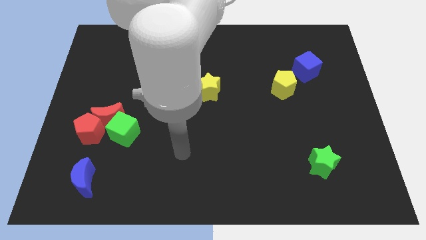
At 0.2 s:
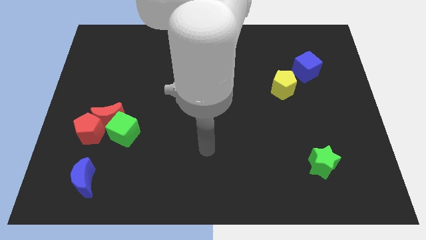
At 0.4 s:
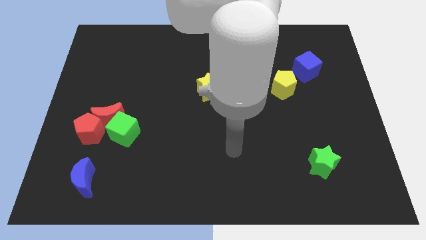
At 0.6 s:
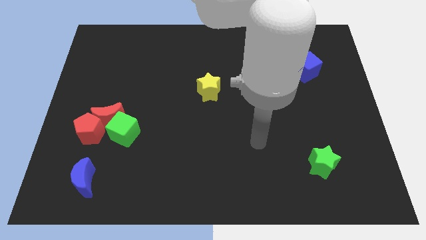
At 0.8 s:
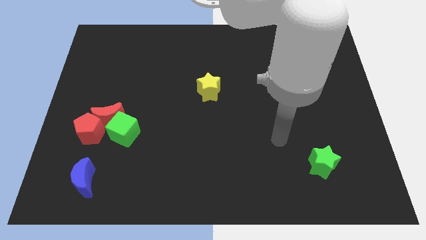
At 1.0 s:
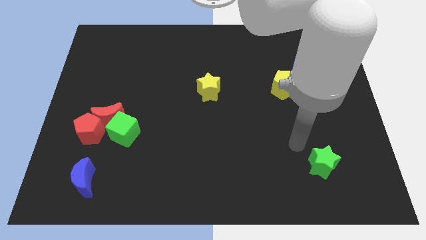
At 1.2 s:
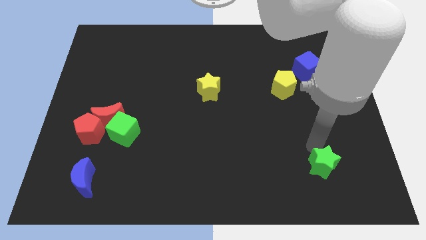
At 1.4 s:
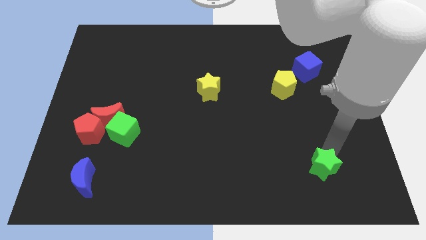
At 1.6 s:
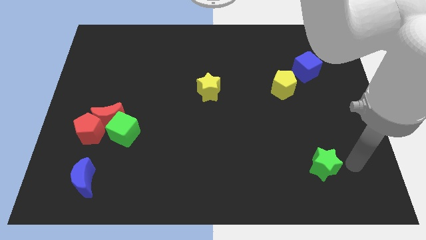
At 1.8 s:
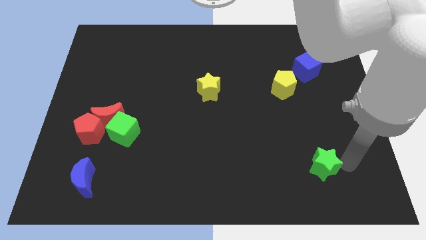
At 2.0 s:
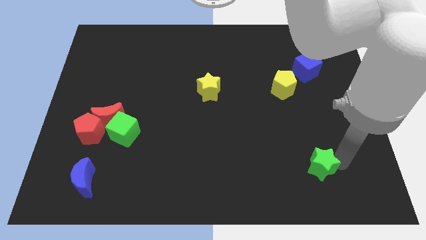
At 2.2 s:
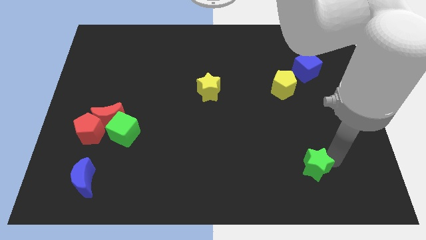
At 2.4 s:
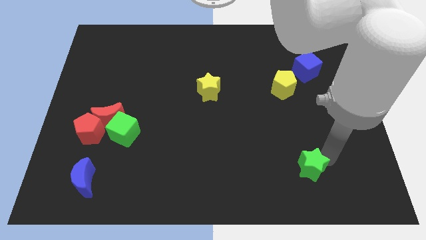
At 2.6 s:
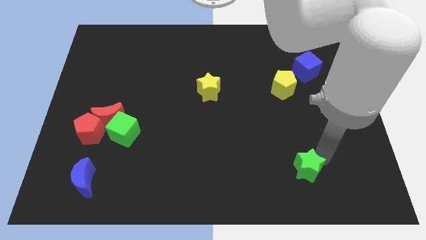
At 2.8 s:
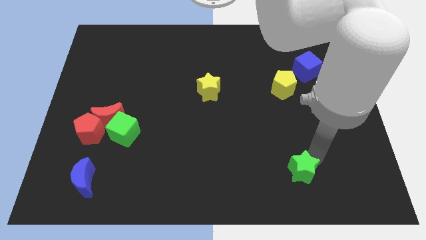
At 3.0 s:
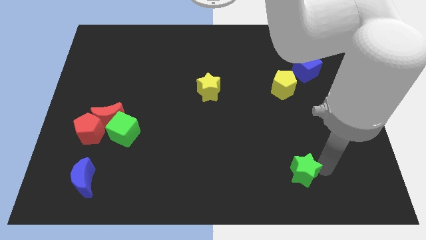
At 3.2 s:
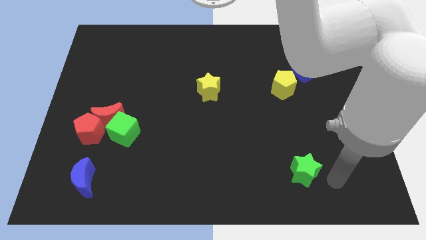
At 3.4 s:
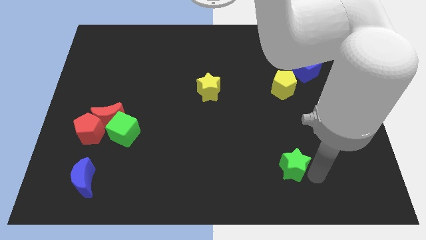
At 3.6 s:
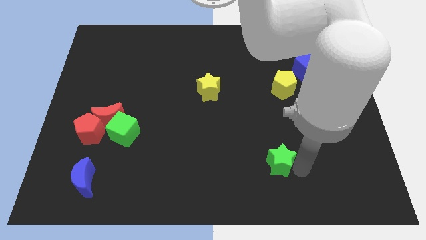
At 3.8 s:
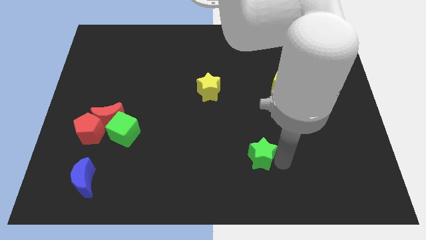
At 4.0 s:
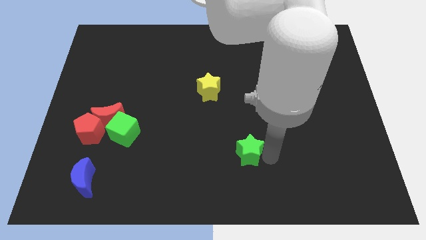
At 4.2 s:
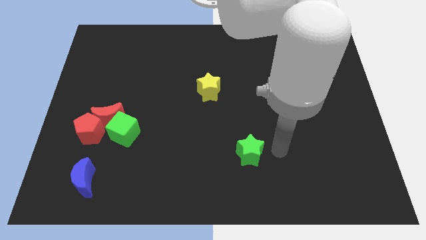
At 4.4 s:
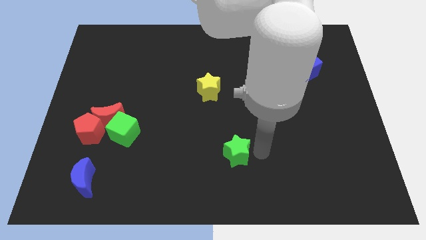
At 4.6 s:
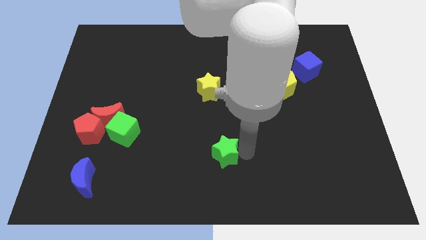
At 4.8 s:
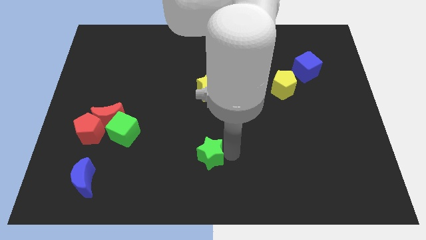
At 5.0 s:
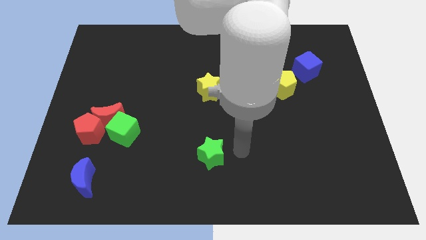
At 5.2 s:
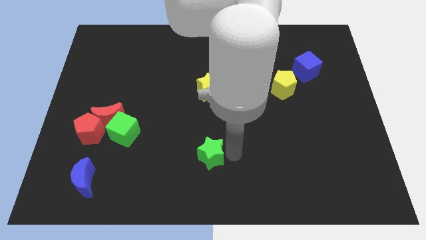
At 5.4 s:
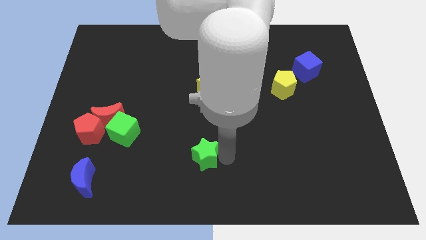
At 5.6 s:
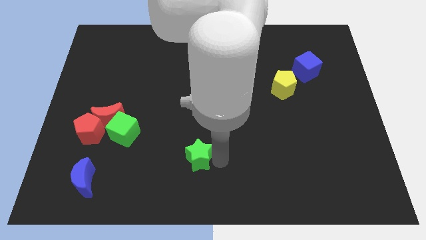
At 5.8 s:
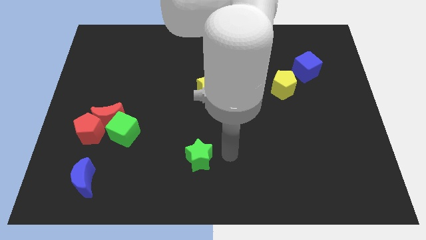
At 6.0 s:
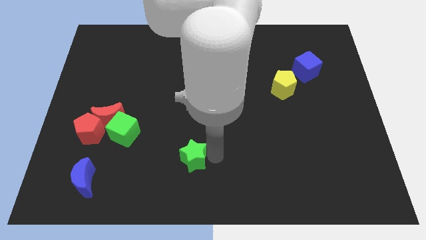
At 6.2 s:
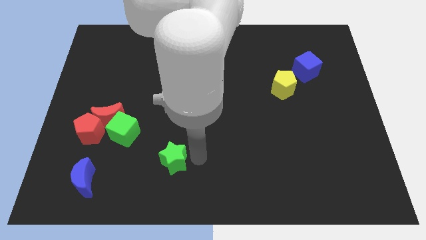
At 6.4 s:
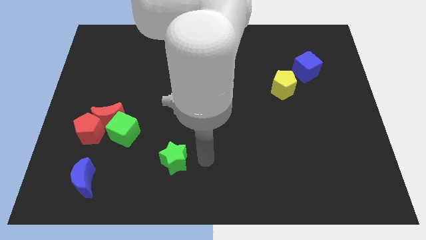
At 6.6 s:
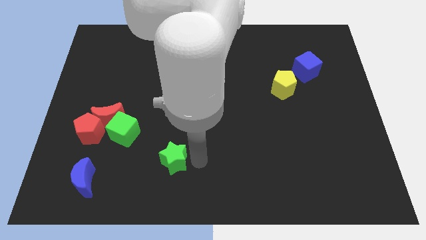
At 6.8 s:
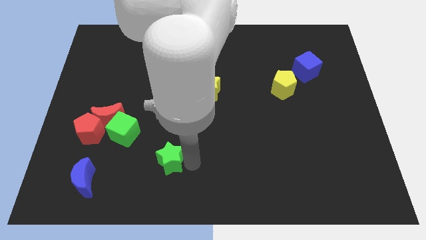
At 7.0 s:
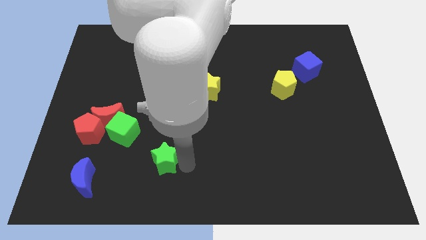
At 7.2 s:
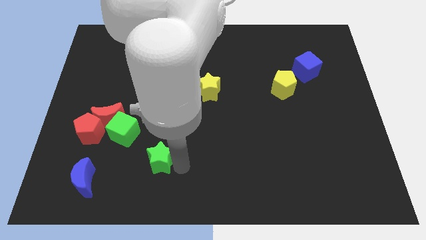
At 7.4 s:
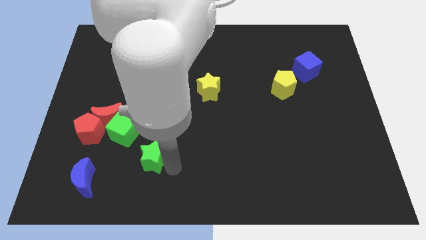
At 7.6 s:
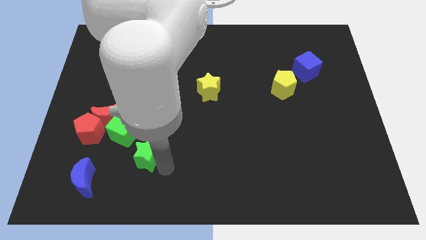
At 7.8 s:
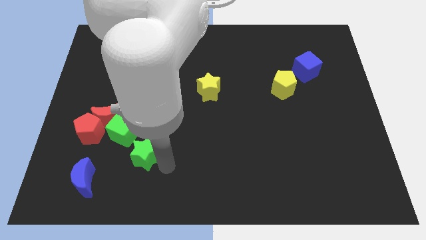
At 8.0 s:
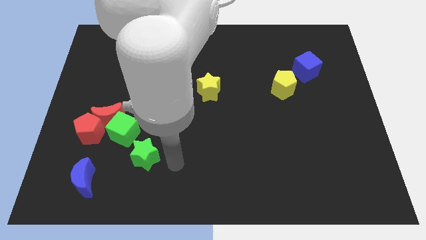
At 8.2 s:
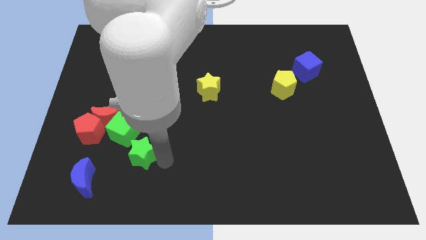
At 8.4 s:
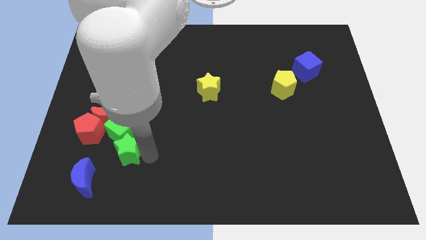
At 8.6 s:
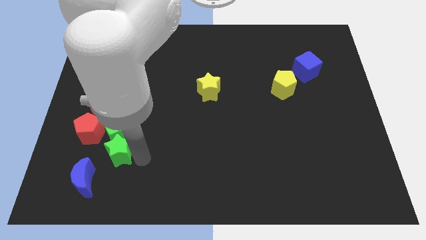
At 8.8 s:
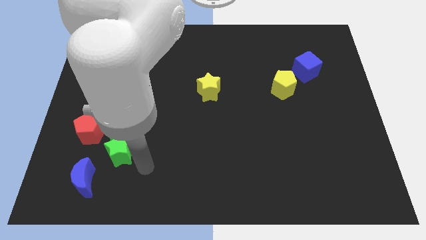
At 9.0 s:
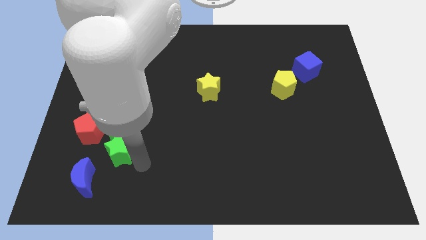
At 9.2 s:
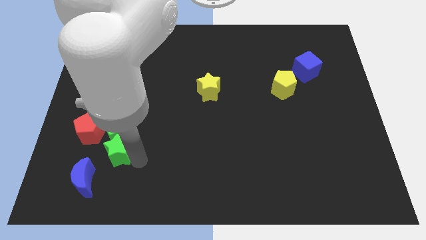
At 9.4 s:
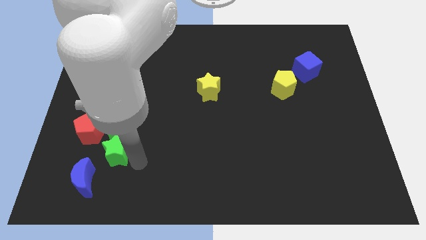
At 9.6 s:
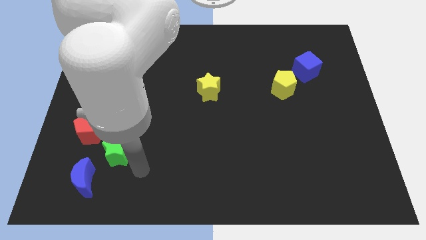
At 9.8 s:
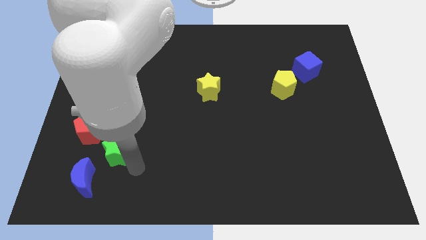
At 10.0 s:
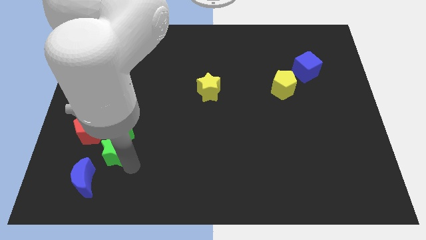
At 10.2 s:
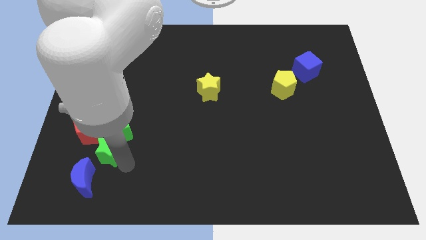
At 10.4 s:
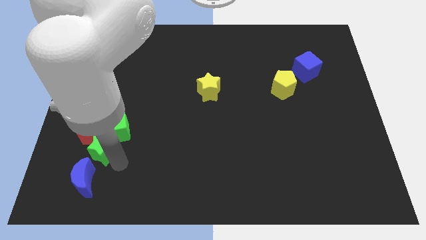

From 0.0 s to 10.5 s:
slide the green star close to the red pentagon

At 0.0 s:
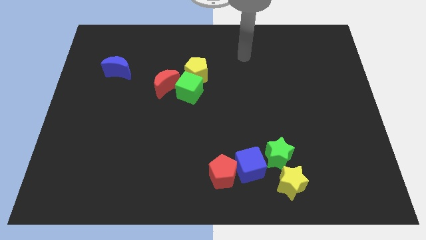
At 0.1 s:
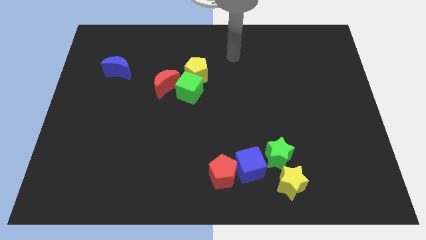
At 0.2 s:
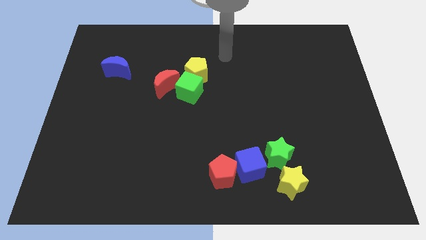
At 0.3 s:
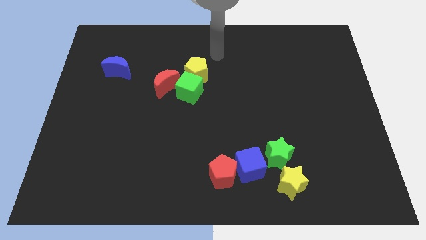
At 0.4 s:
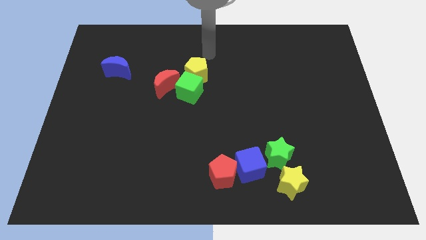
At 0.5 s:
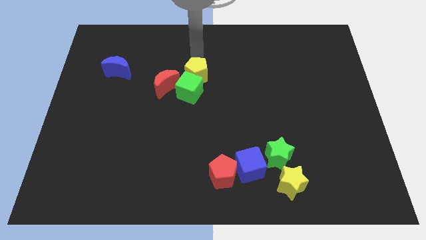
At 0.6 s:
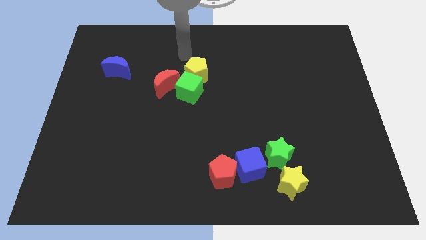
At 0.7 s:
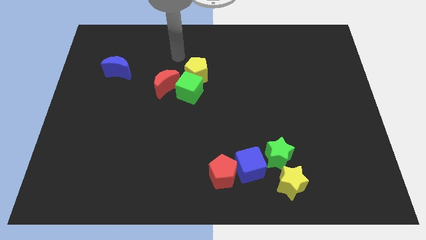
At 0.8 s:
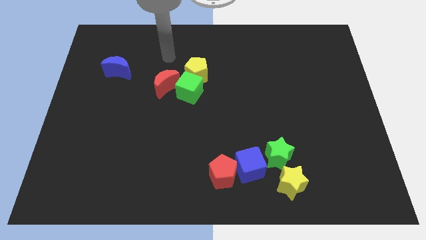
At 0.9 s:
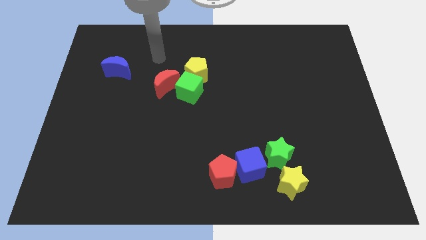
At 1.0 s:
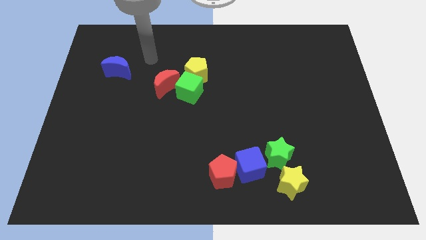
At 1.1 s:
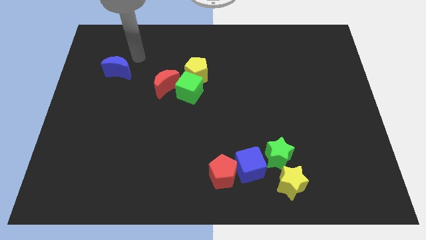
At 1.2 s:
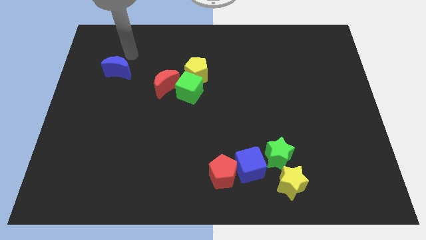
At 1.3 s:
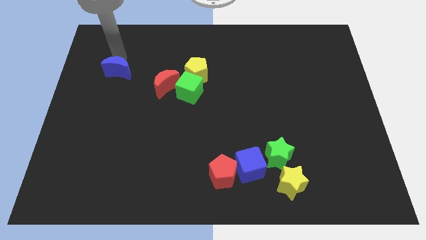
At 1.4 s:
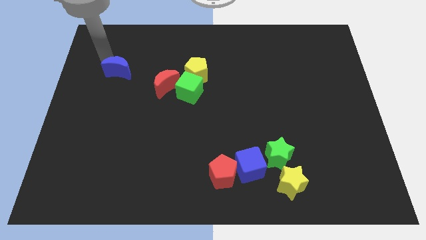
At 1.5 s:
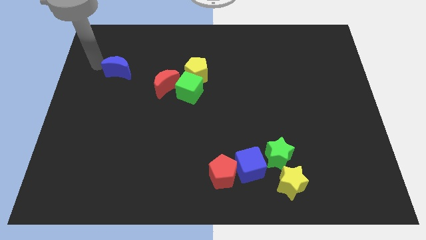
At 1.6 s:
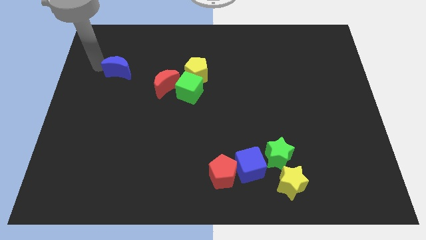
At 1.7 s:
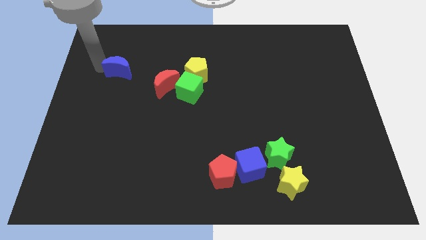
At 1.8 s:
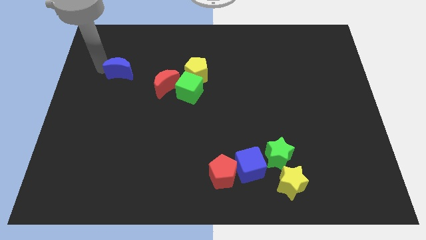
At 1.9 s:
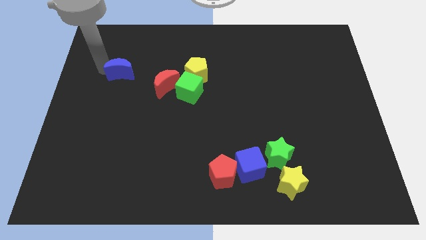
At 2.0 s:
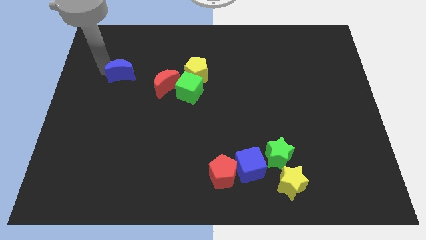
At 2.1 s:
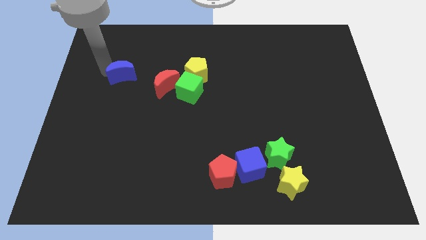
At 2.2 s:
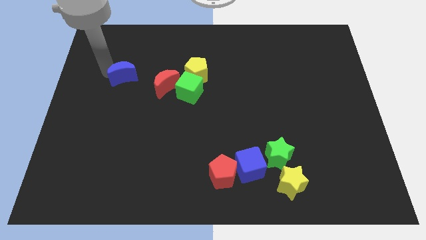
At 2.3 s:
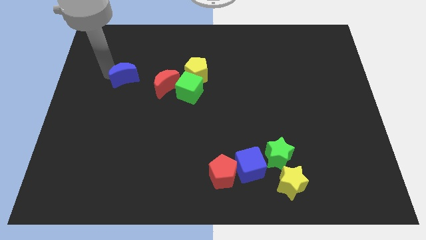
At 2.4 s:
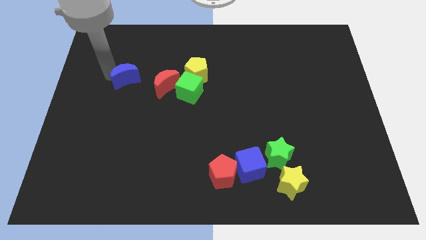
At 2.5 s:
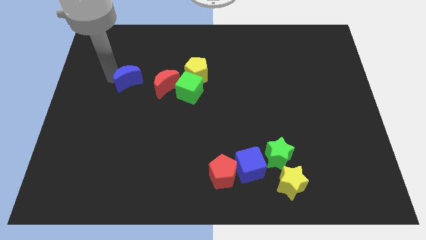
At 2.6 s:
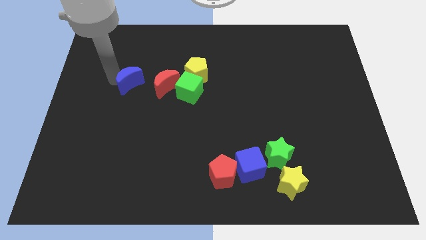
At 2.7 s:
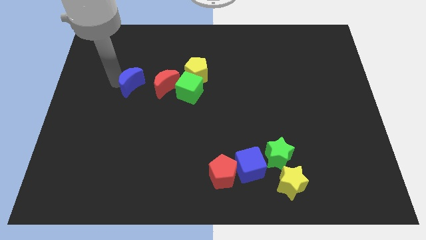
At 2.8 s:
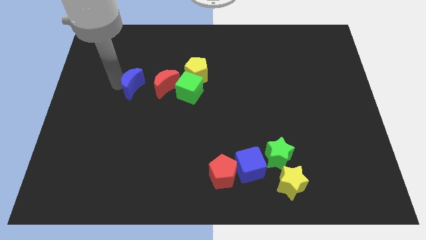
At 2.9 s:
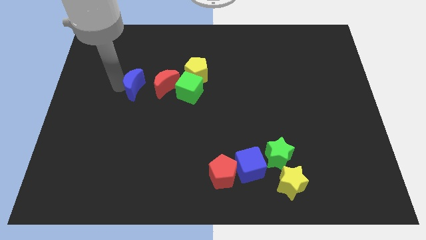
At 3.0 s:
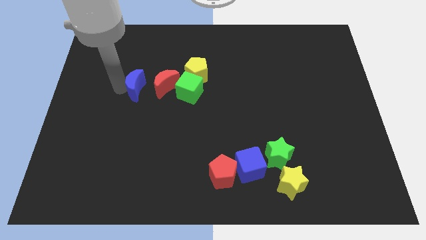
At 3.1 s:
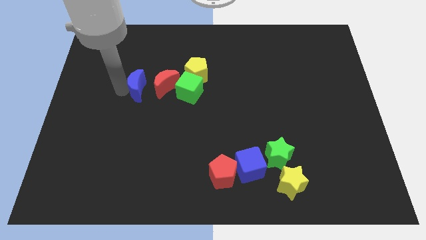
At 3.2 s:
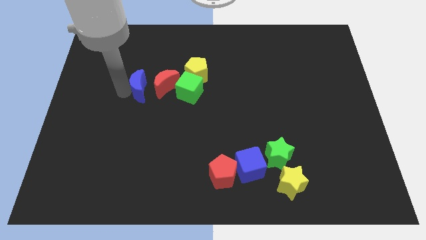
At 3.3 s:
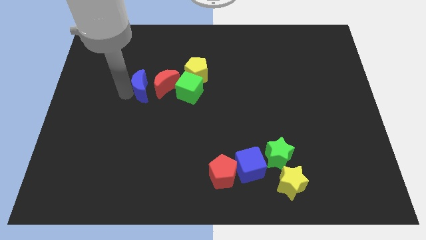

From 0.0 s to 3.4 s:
move the blue moon close to the red moon
